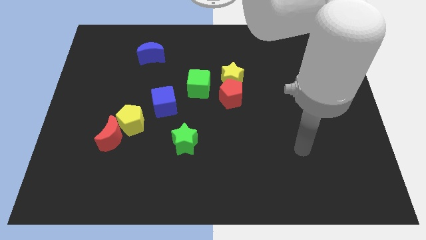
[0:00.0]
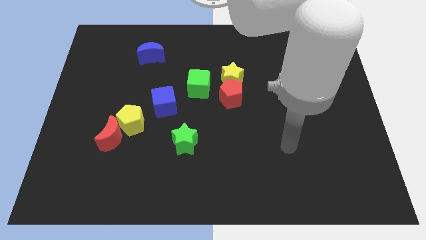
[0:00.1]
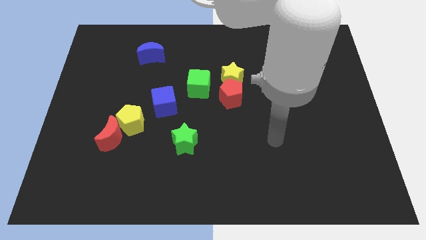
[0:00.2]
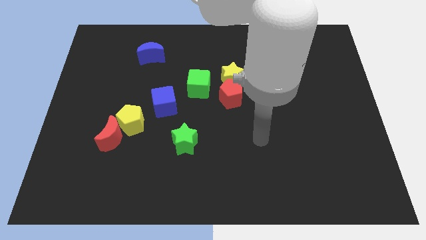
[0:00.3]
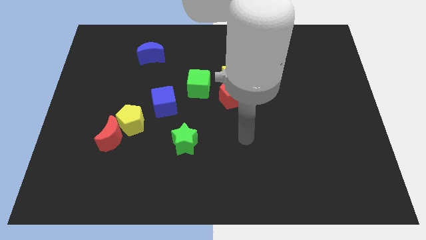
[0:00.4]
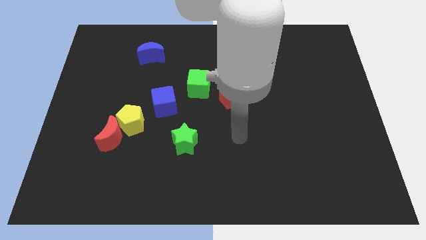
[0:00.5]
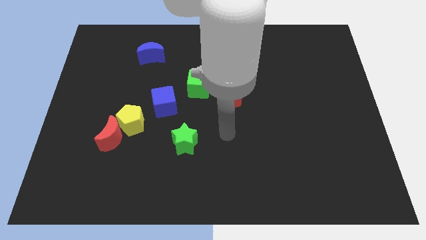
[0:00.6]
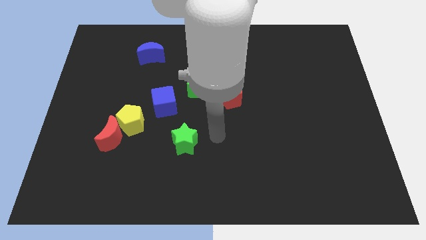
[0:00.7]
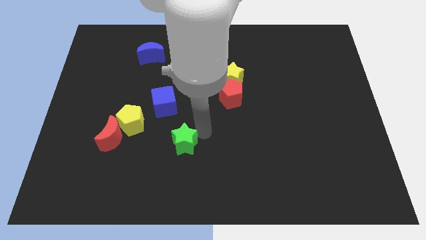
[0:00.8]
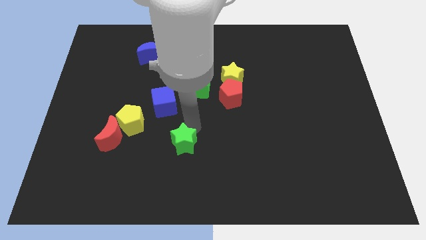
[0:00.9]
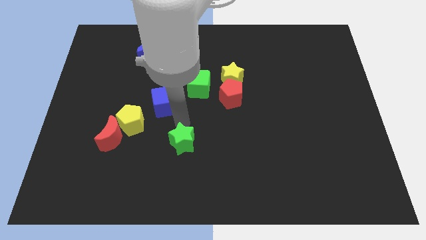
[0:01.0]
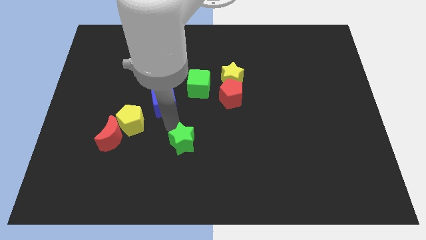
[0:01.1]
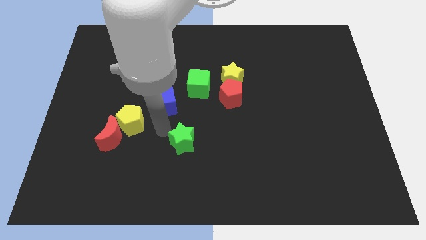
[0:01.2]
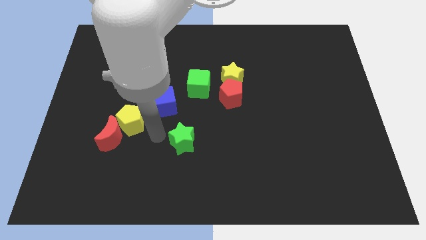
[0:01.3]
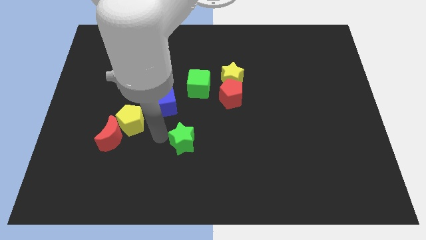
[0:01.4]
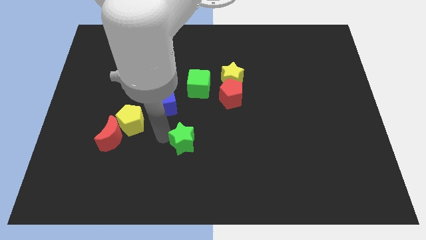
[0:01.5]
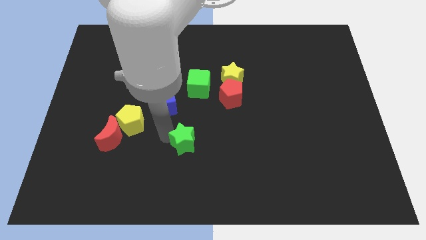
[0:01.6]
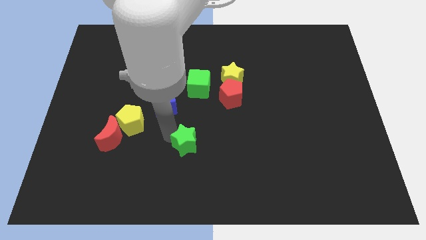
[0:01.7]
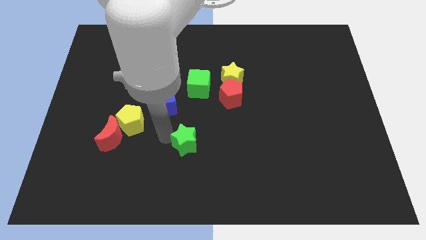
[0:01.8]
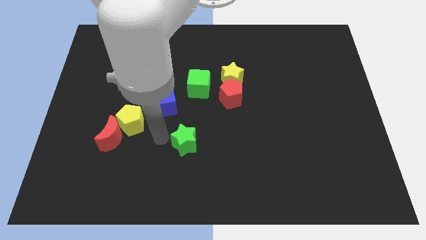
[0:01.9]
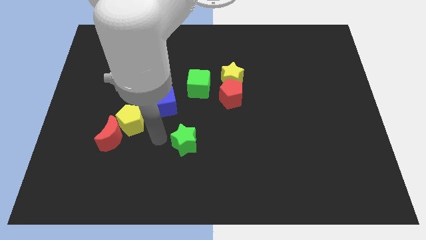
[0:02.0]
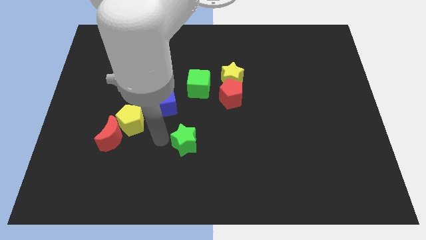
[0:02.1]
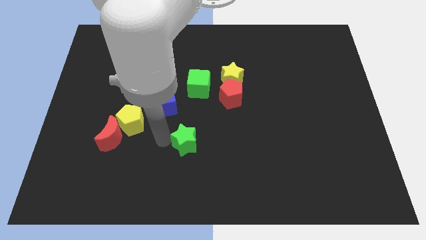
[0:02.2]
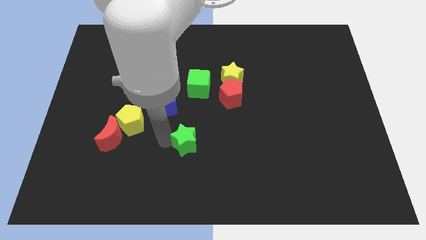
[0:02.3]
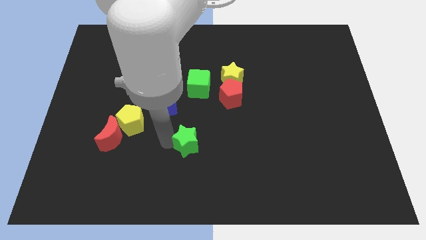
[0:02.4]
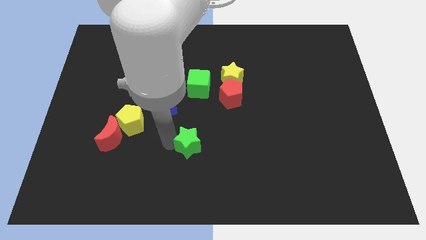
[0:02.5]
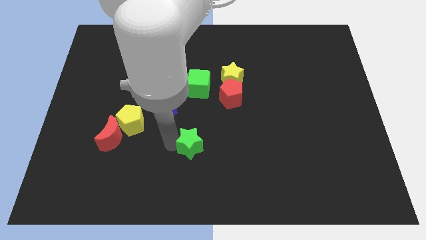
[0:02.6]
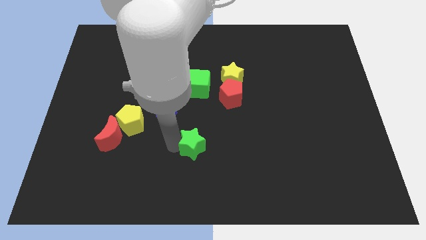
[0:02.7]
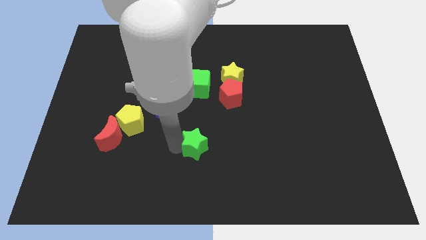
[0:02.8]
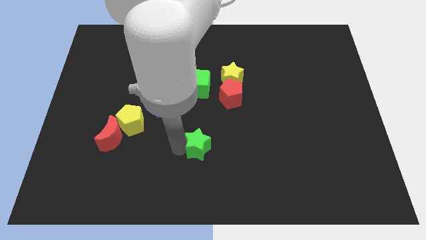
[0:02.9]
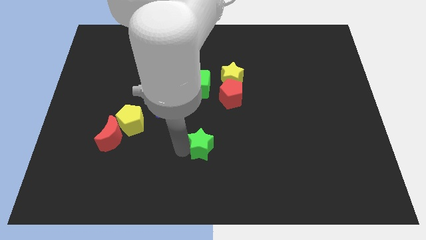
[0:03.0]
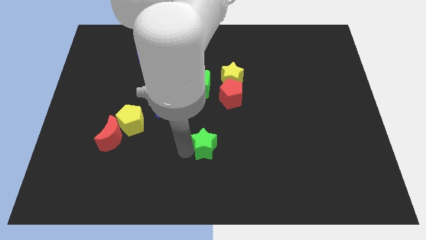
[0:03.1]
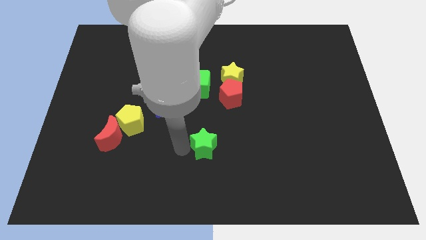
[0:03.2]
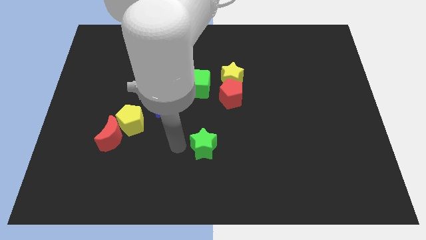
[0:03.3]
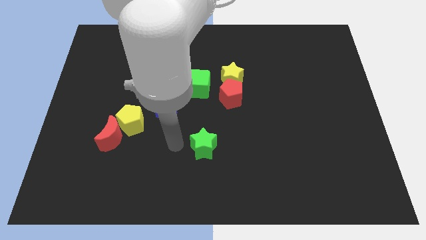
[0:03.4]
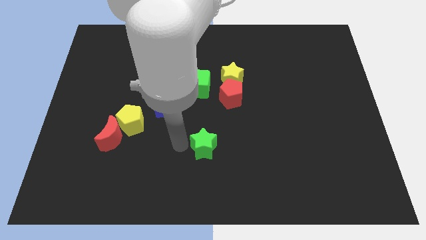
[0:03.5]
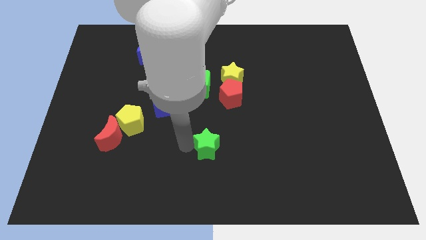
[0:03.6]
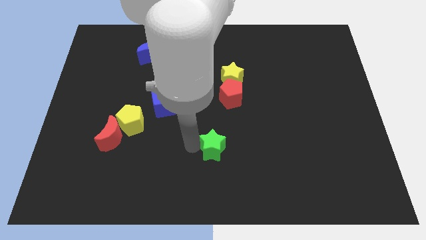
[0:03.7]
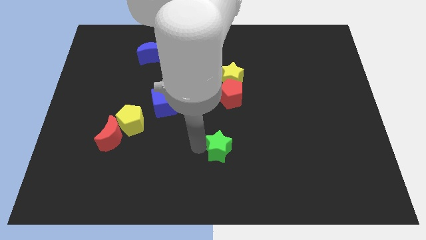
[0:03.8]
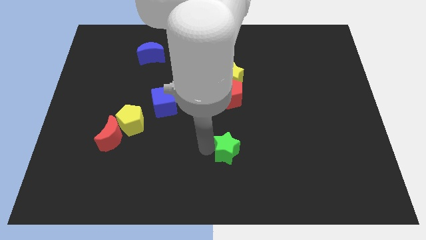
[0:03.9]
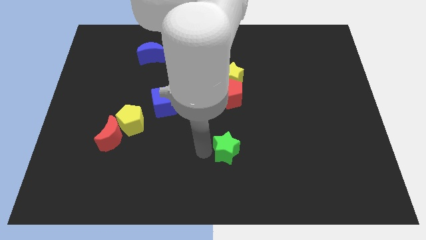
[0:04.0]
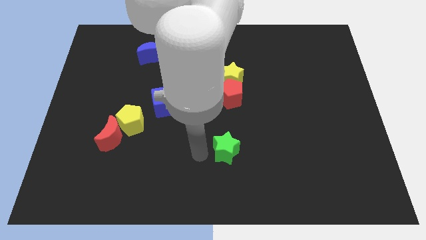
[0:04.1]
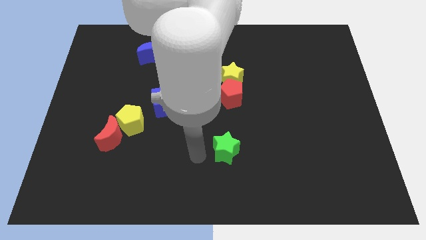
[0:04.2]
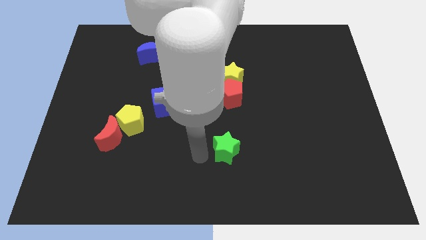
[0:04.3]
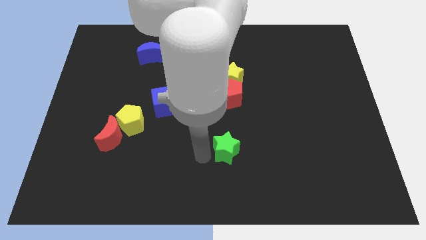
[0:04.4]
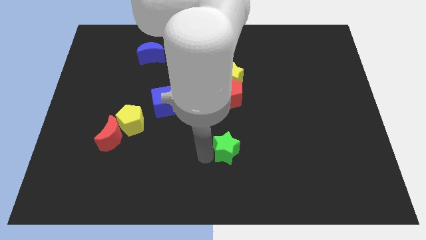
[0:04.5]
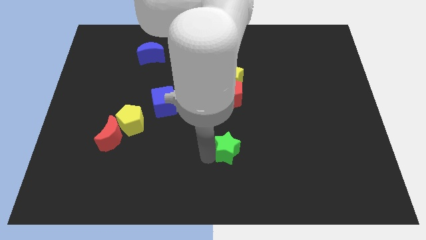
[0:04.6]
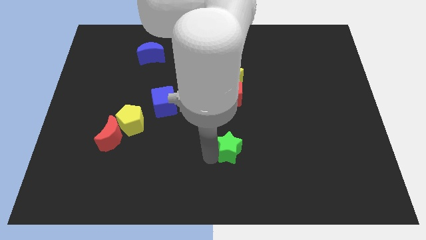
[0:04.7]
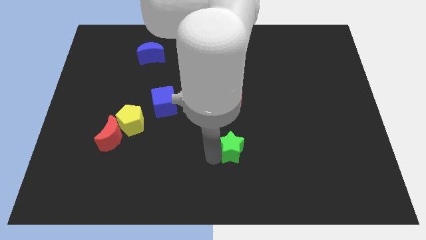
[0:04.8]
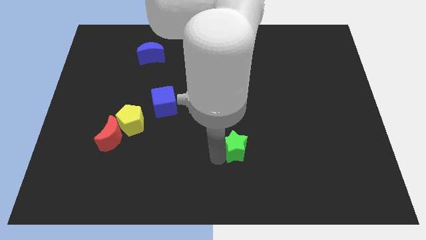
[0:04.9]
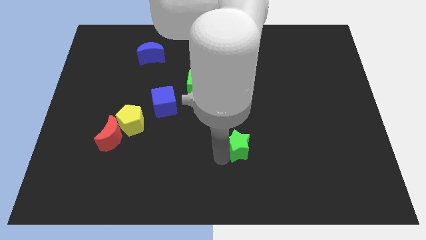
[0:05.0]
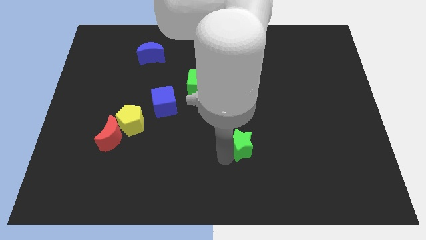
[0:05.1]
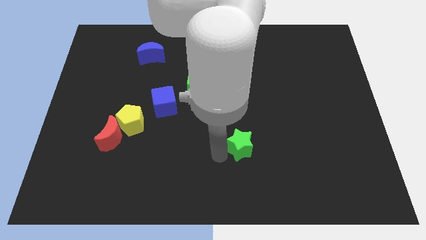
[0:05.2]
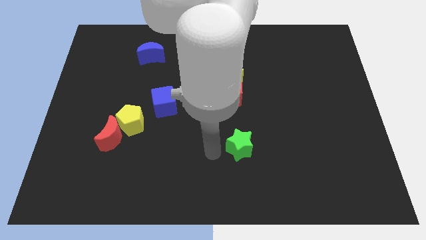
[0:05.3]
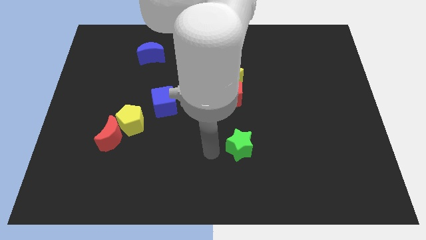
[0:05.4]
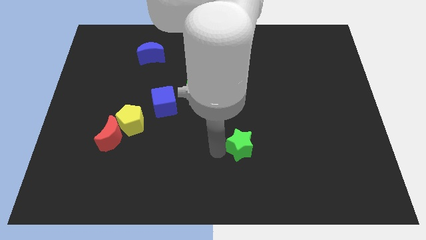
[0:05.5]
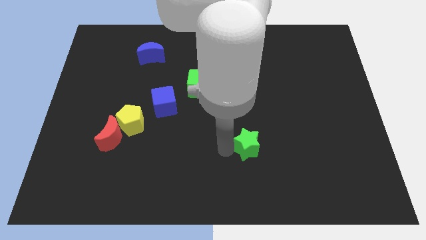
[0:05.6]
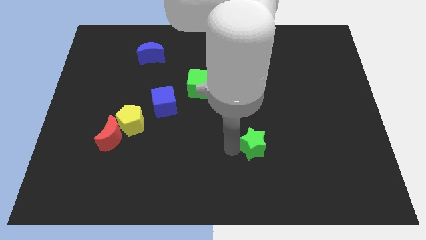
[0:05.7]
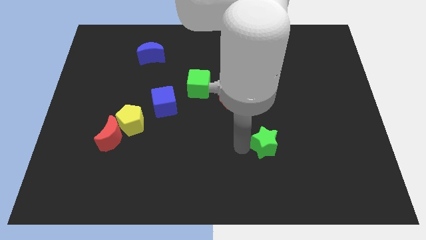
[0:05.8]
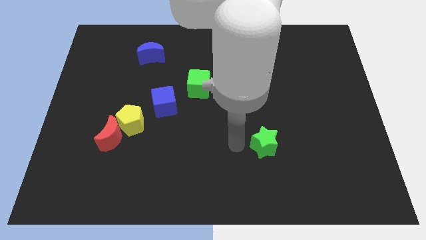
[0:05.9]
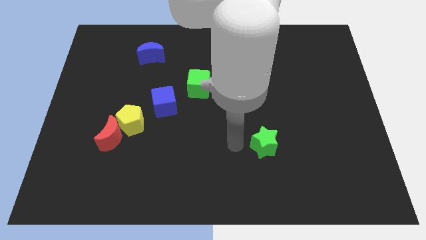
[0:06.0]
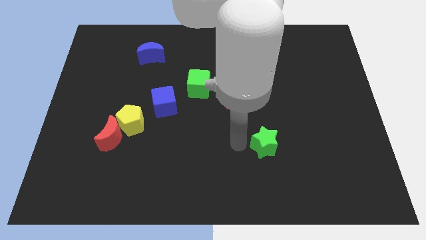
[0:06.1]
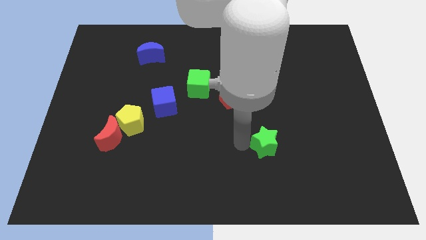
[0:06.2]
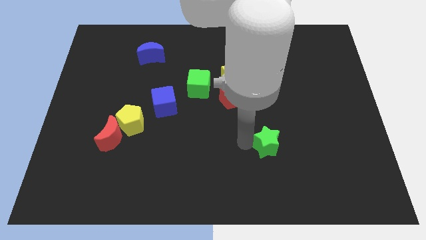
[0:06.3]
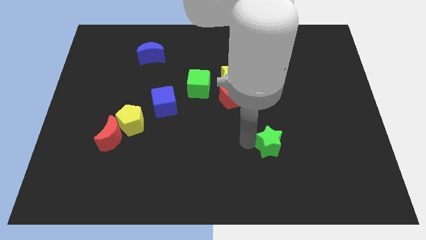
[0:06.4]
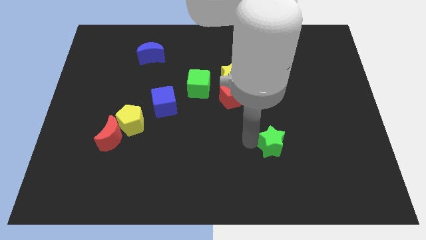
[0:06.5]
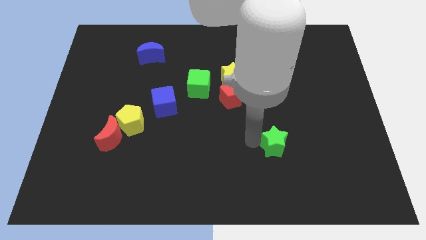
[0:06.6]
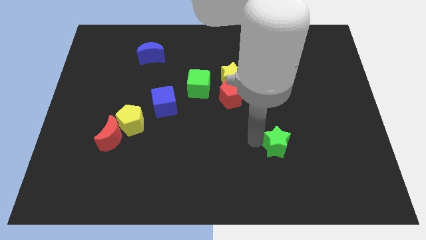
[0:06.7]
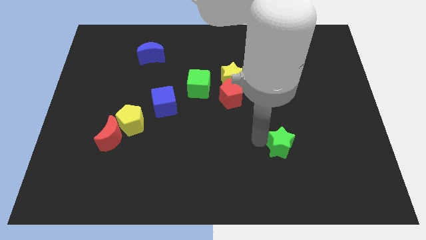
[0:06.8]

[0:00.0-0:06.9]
push the green star right

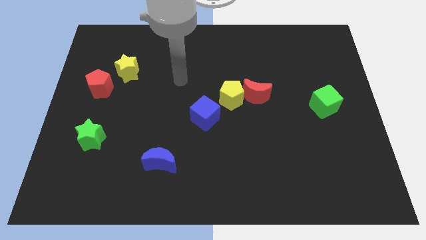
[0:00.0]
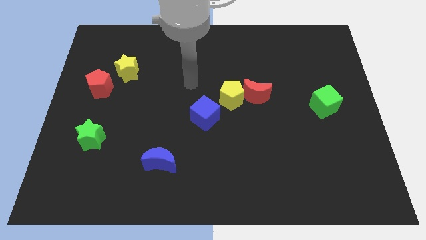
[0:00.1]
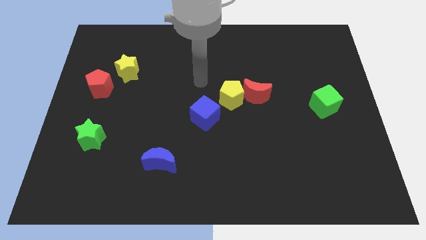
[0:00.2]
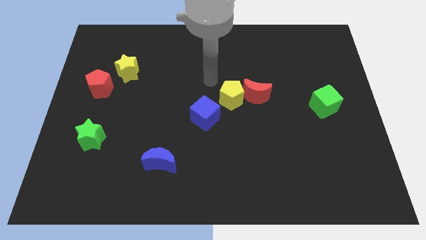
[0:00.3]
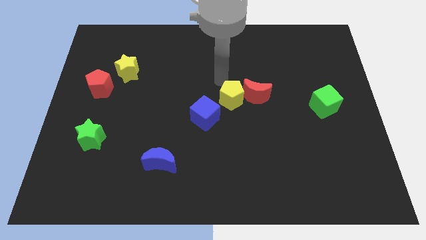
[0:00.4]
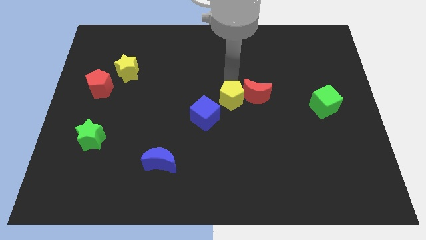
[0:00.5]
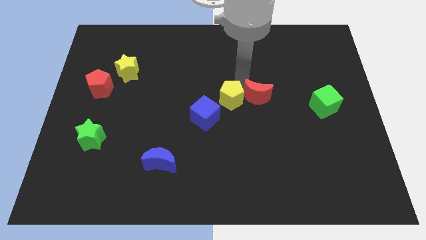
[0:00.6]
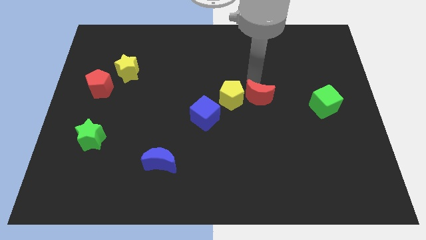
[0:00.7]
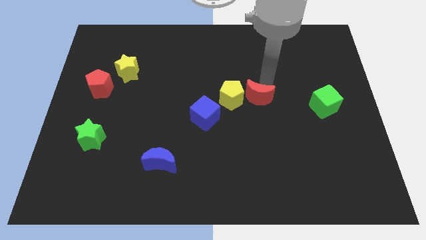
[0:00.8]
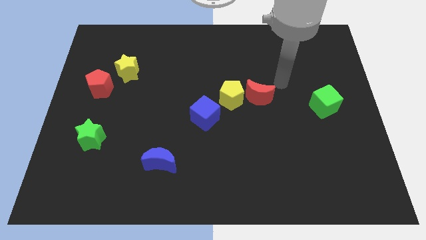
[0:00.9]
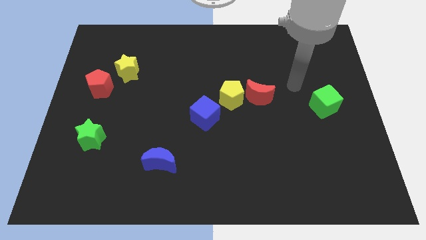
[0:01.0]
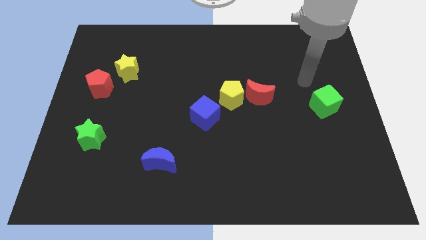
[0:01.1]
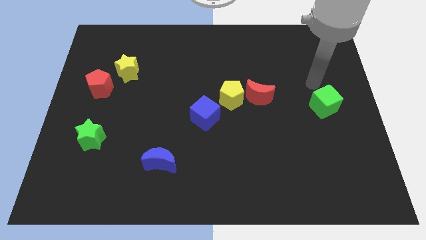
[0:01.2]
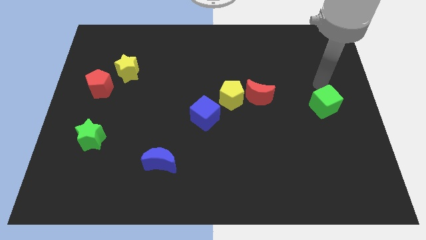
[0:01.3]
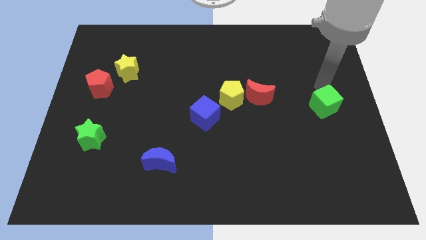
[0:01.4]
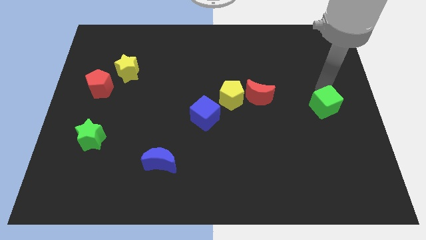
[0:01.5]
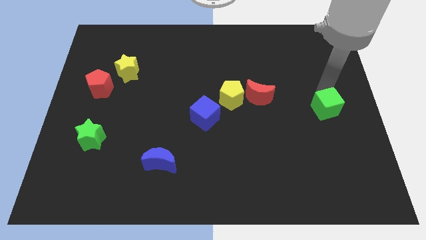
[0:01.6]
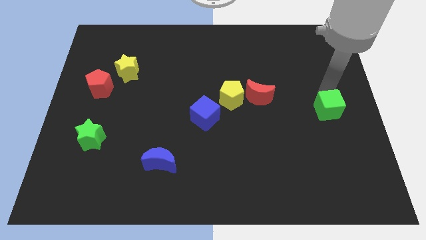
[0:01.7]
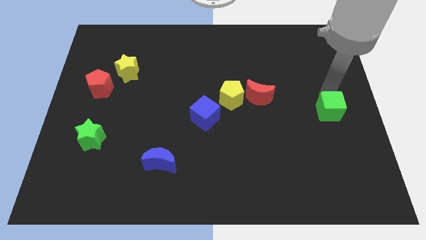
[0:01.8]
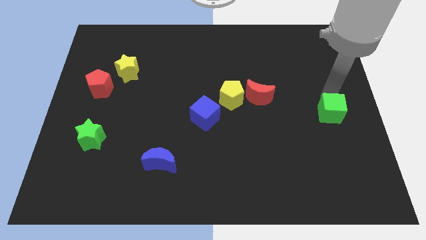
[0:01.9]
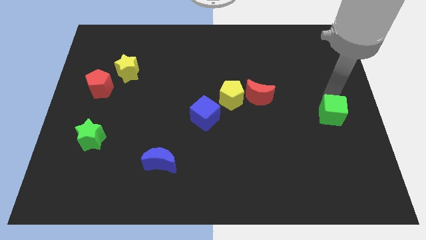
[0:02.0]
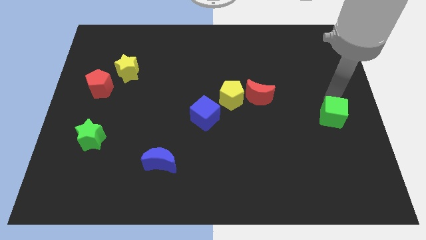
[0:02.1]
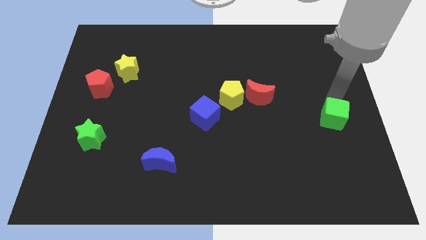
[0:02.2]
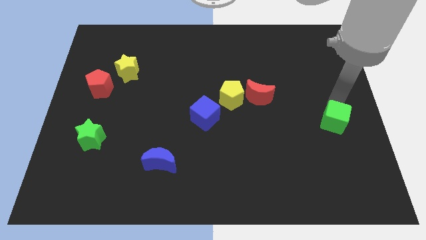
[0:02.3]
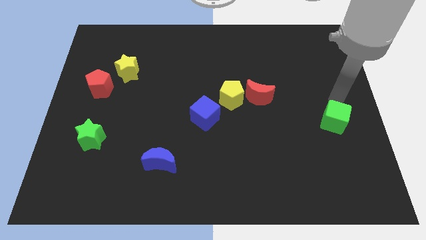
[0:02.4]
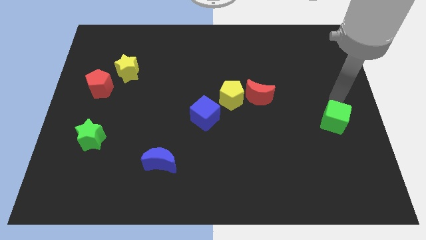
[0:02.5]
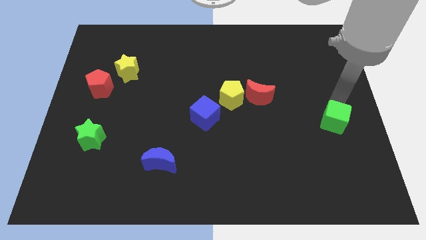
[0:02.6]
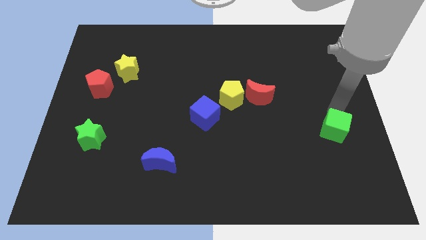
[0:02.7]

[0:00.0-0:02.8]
slightly push the green cube downwards
